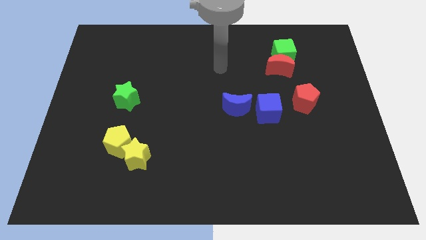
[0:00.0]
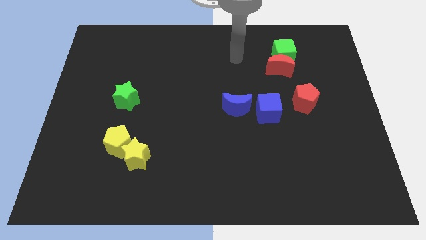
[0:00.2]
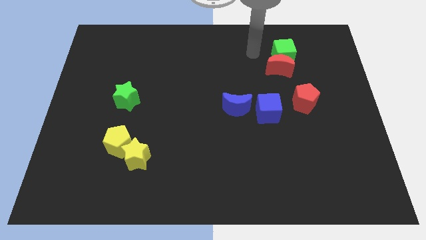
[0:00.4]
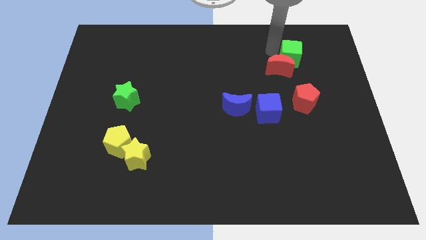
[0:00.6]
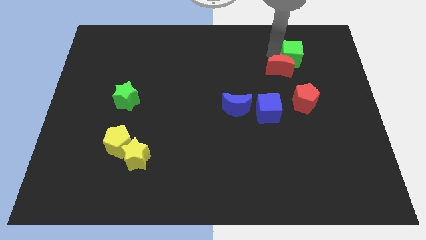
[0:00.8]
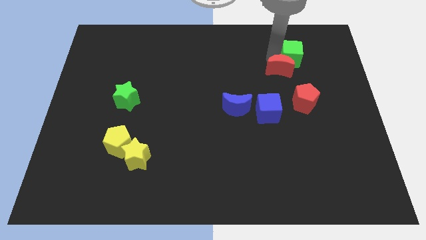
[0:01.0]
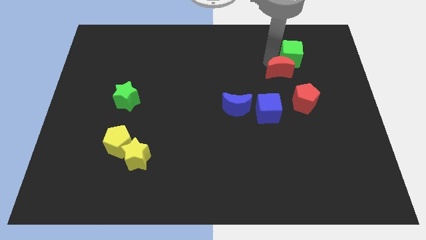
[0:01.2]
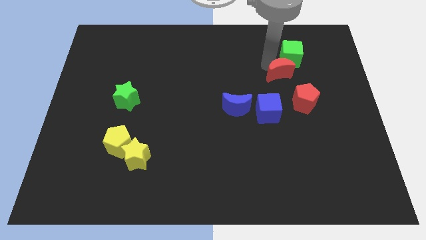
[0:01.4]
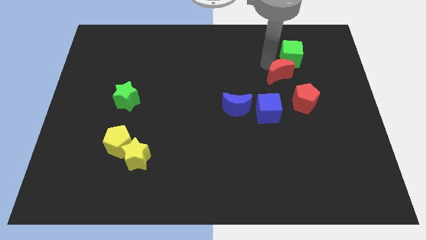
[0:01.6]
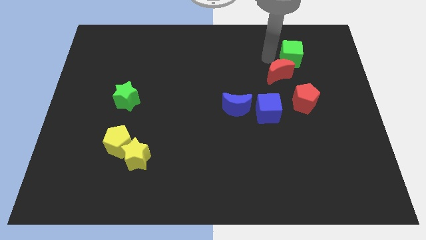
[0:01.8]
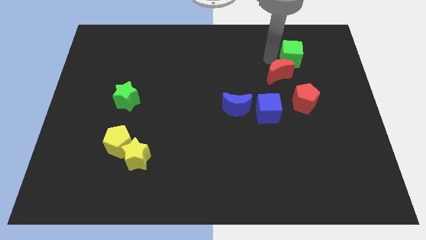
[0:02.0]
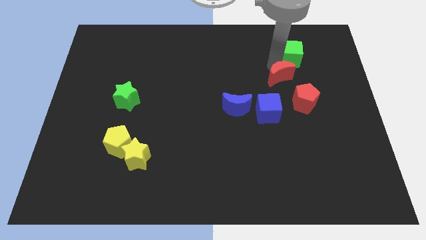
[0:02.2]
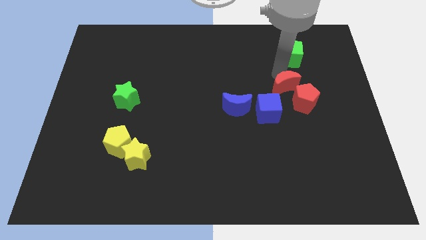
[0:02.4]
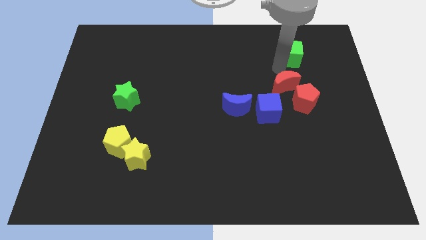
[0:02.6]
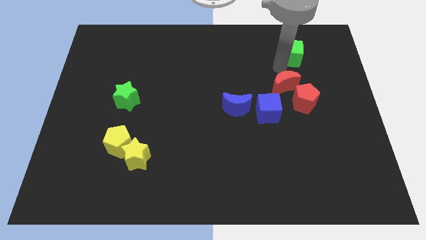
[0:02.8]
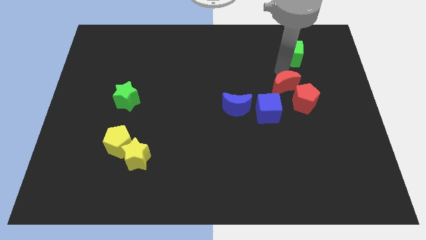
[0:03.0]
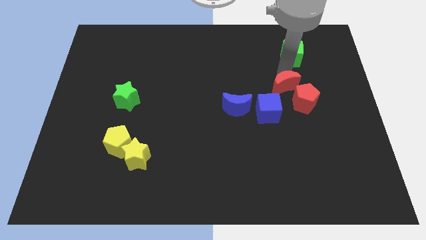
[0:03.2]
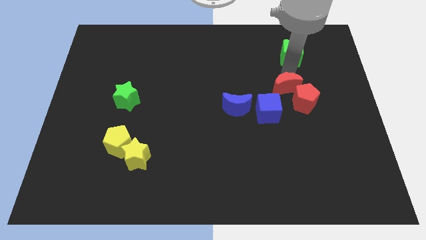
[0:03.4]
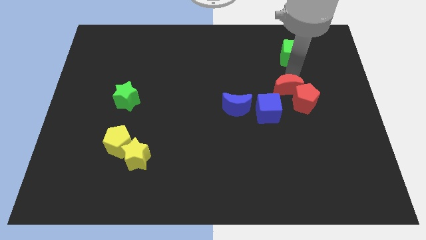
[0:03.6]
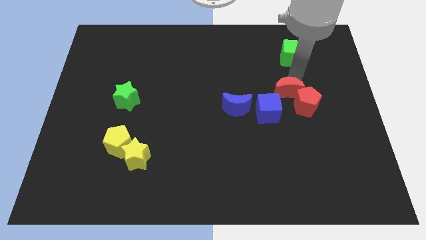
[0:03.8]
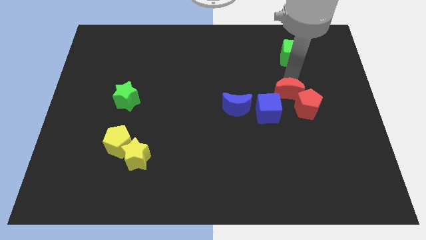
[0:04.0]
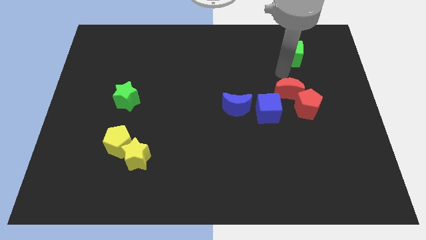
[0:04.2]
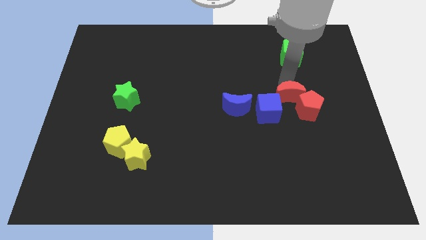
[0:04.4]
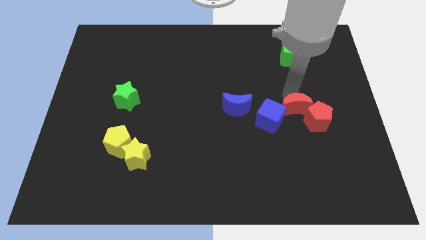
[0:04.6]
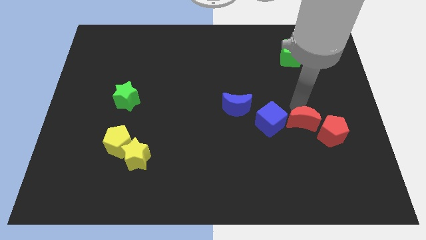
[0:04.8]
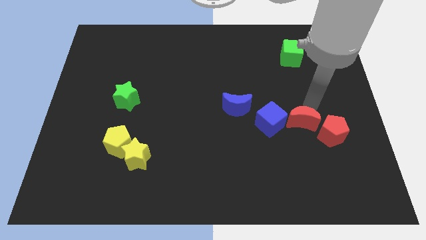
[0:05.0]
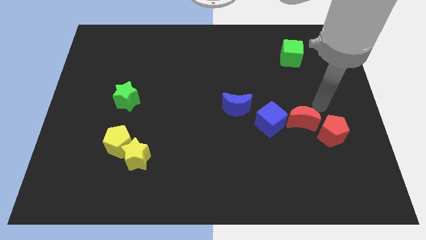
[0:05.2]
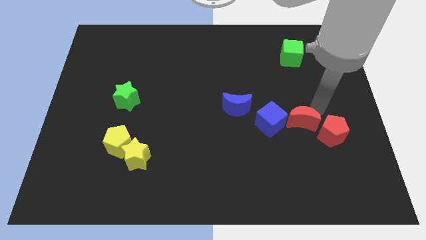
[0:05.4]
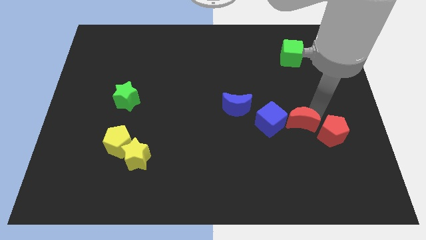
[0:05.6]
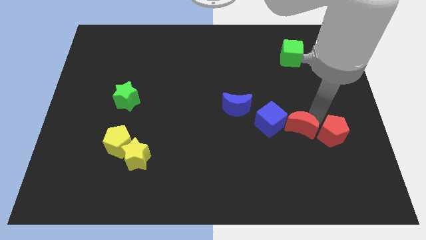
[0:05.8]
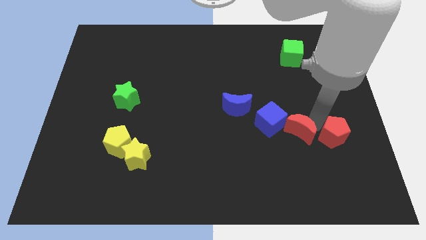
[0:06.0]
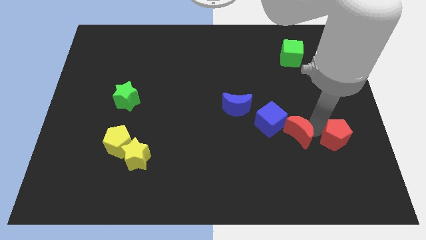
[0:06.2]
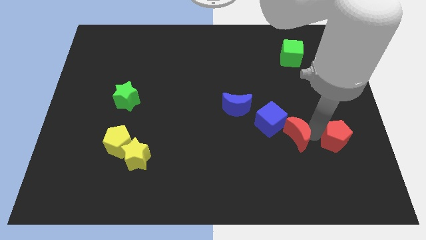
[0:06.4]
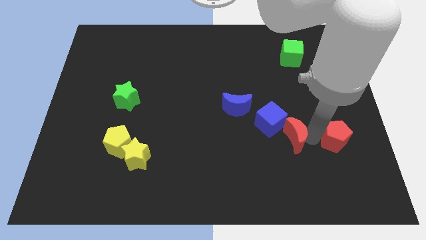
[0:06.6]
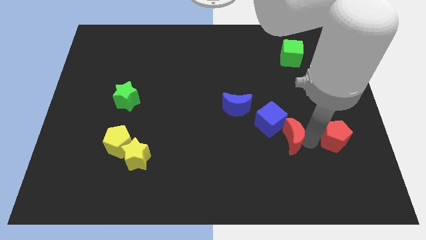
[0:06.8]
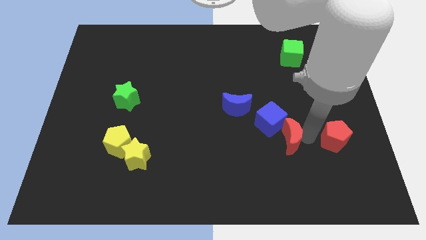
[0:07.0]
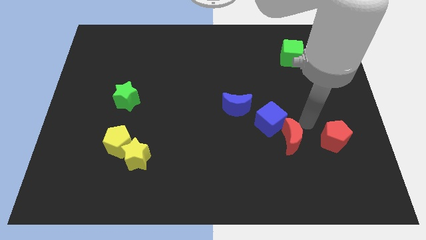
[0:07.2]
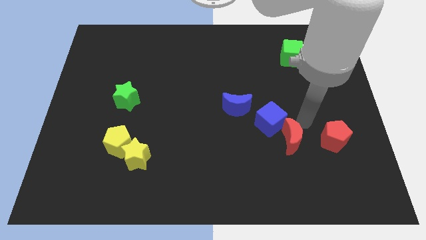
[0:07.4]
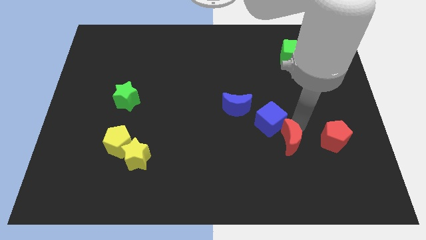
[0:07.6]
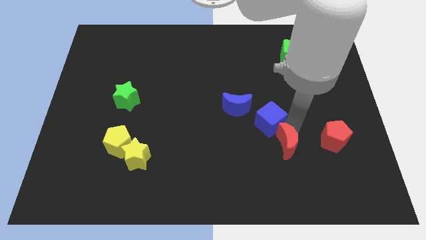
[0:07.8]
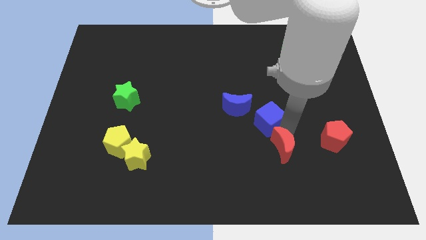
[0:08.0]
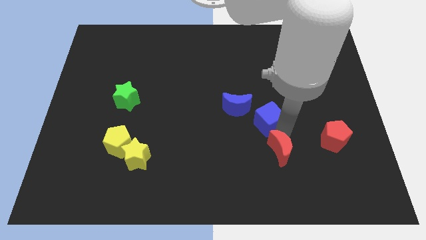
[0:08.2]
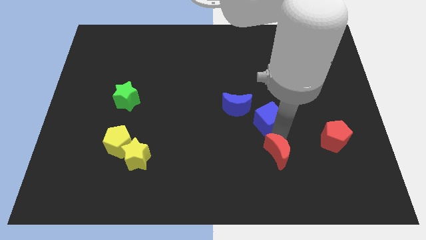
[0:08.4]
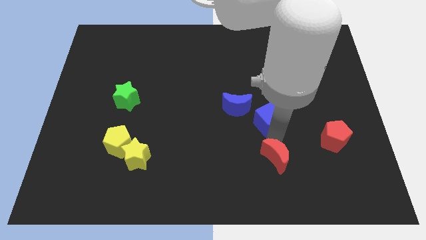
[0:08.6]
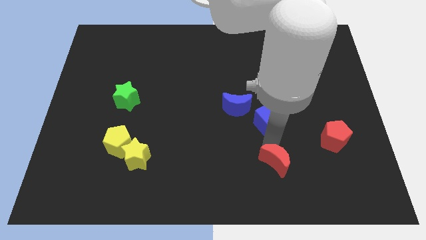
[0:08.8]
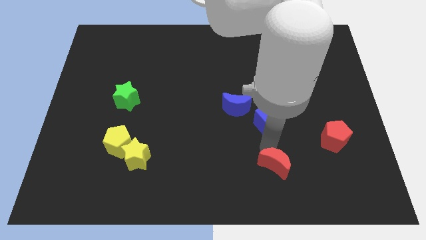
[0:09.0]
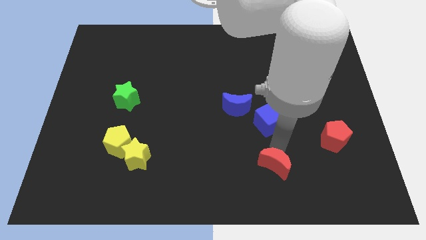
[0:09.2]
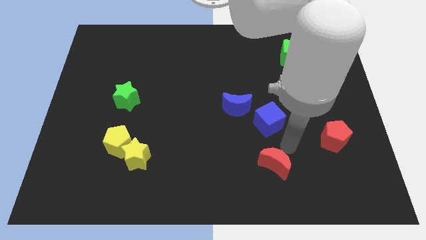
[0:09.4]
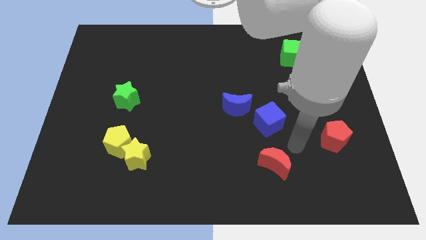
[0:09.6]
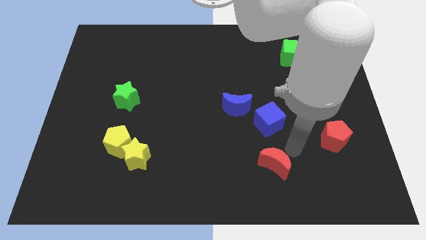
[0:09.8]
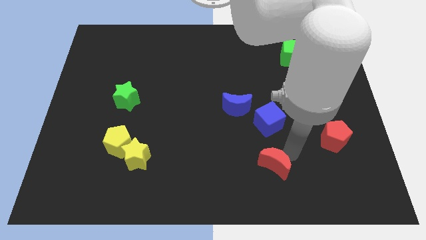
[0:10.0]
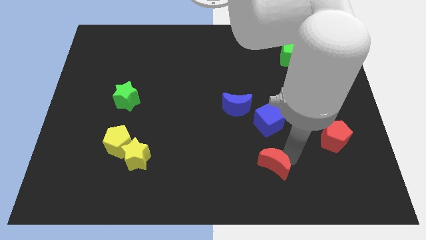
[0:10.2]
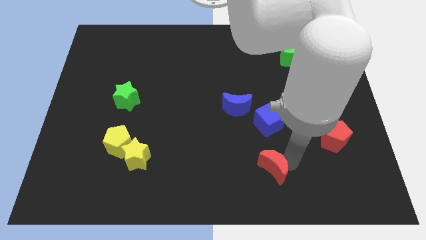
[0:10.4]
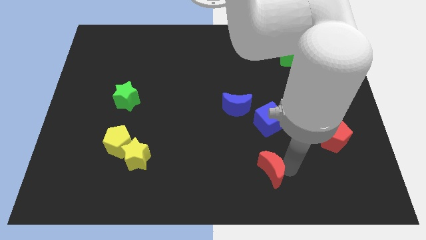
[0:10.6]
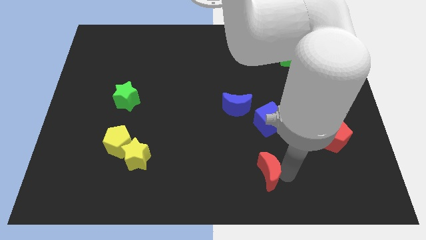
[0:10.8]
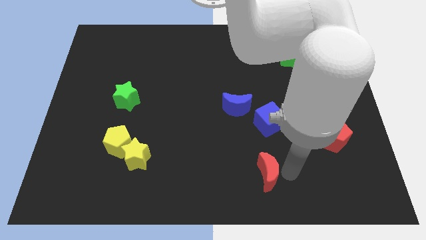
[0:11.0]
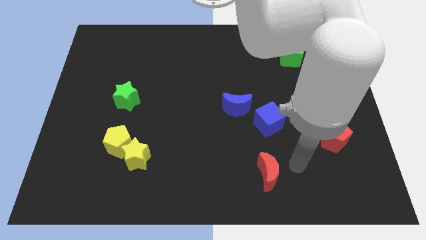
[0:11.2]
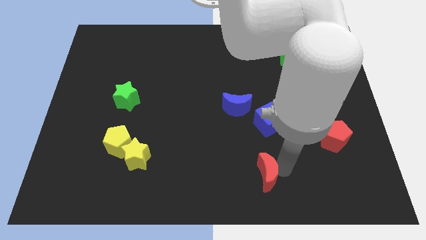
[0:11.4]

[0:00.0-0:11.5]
slide the red moon to the bottom

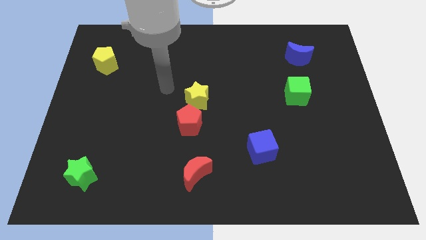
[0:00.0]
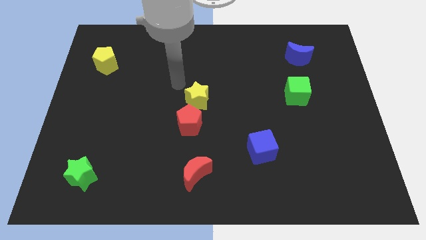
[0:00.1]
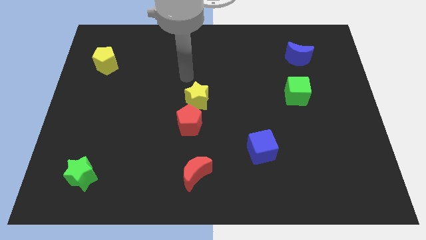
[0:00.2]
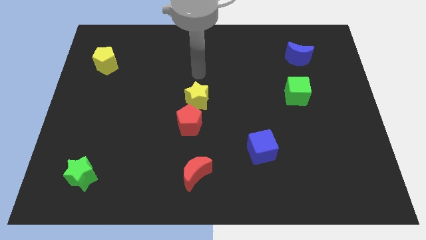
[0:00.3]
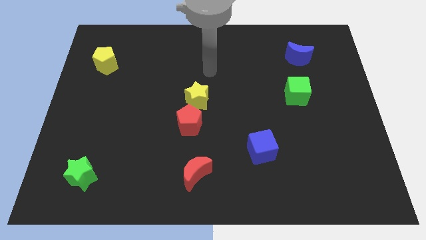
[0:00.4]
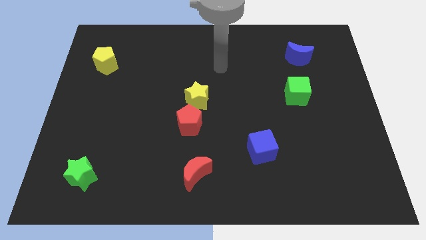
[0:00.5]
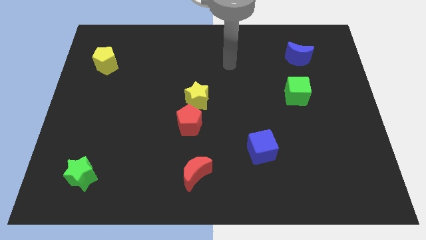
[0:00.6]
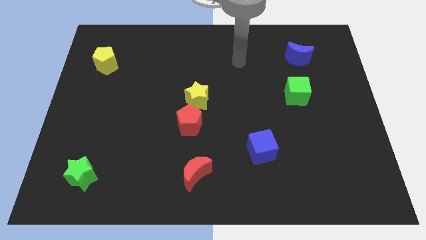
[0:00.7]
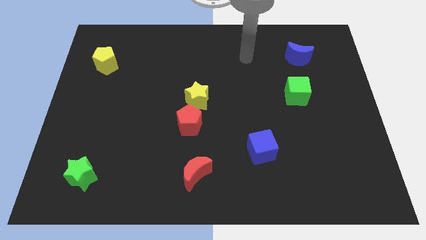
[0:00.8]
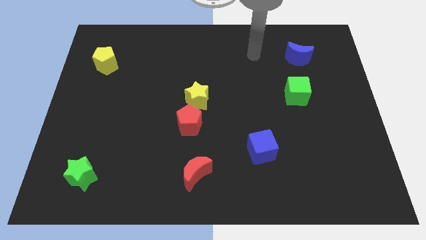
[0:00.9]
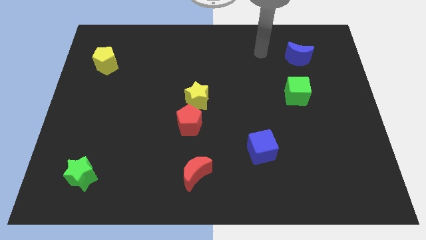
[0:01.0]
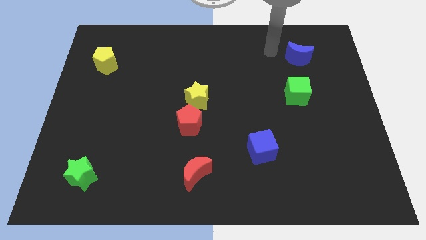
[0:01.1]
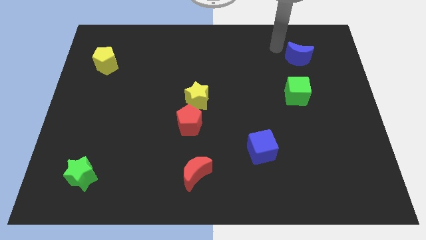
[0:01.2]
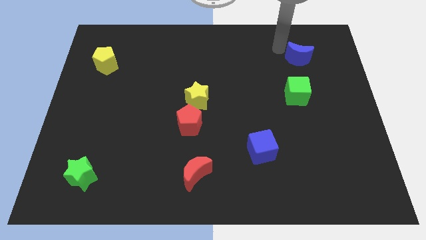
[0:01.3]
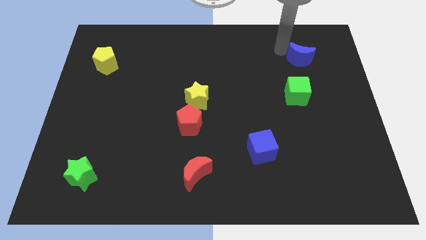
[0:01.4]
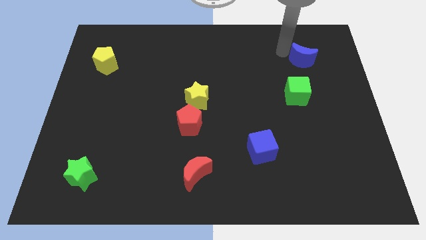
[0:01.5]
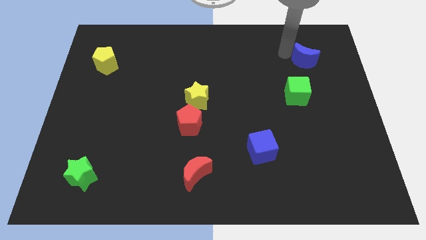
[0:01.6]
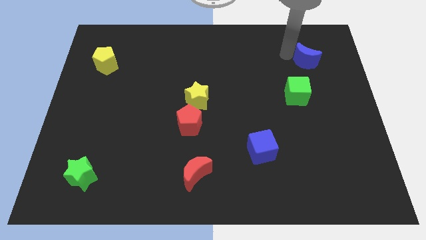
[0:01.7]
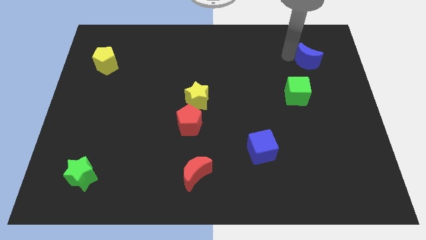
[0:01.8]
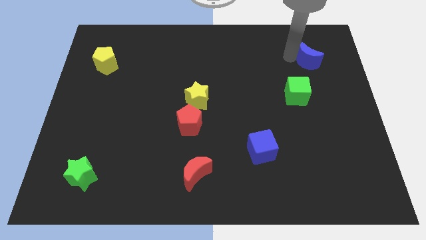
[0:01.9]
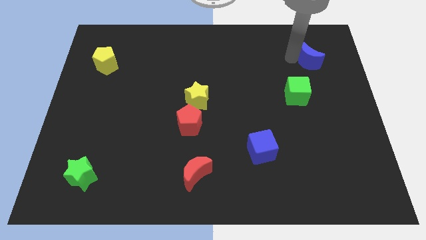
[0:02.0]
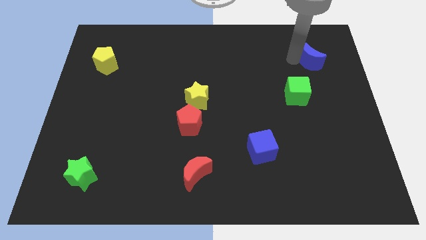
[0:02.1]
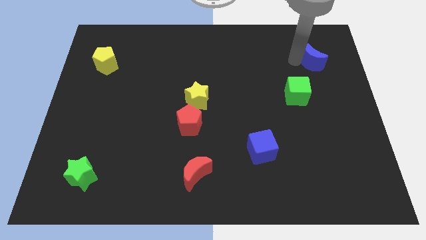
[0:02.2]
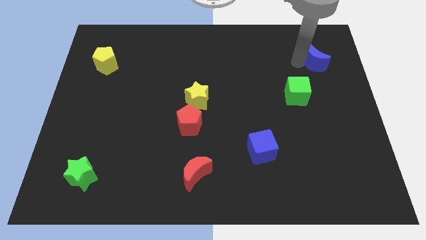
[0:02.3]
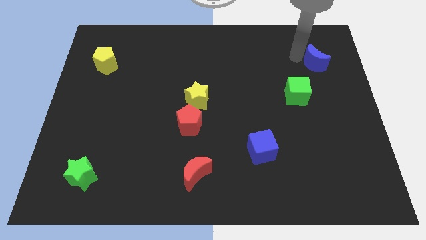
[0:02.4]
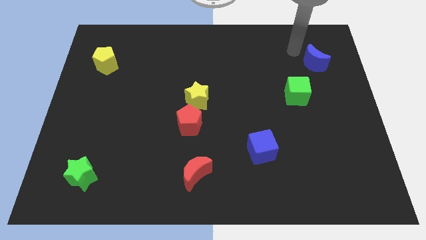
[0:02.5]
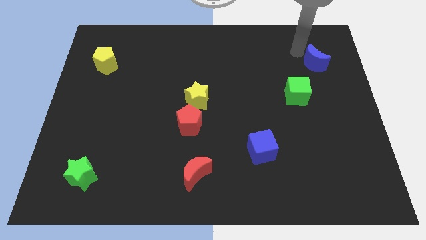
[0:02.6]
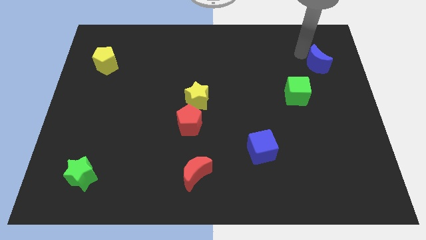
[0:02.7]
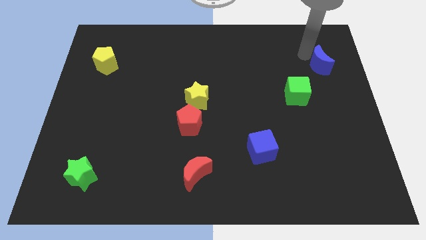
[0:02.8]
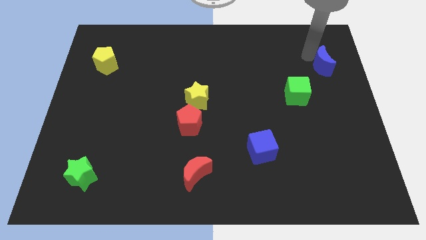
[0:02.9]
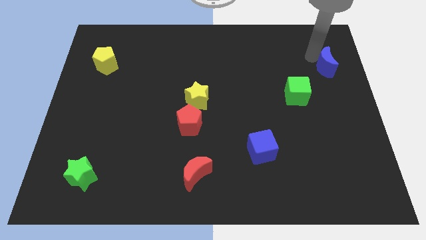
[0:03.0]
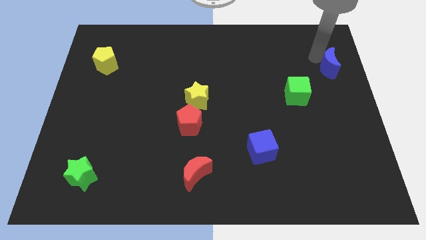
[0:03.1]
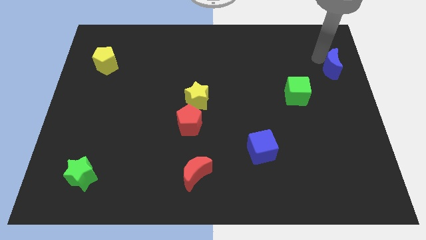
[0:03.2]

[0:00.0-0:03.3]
put the blue moon to the center right
